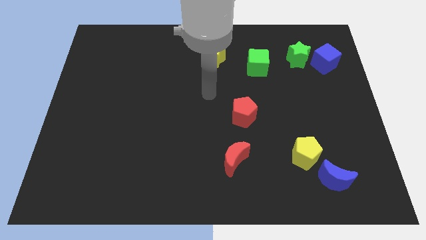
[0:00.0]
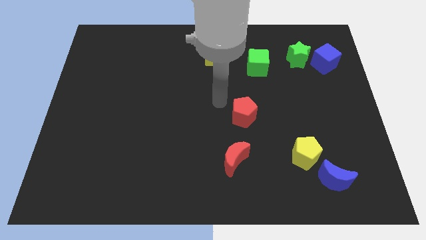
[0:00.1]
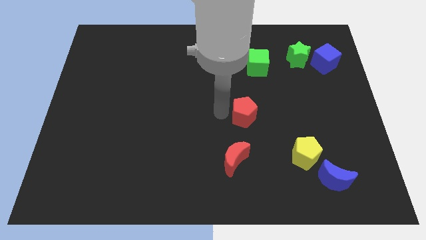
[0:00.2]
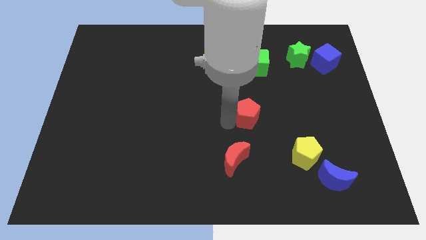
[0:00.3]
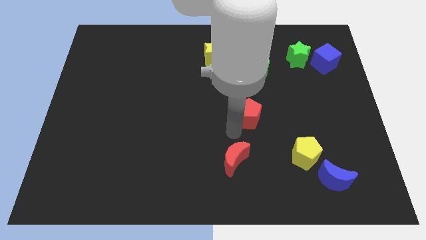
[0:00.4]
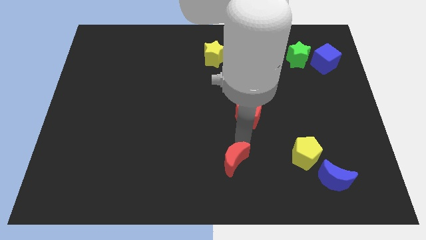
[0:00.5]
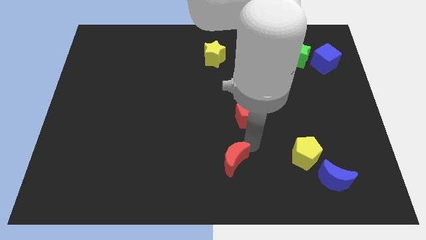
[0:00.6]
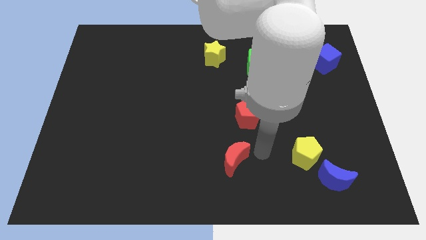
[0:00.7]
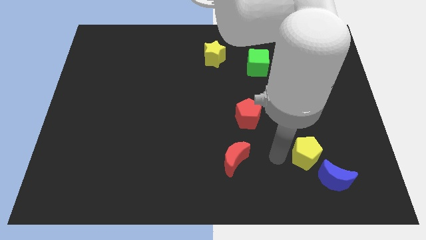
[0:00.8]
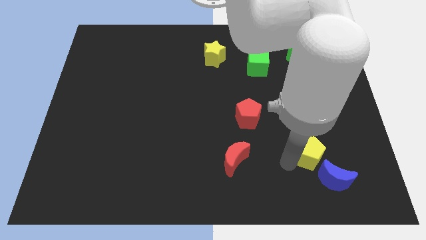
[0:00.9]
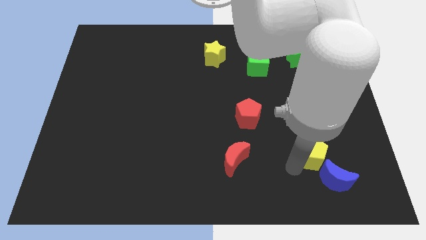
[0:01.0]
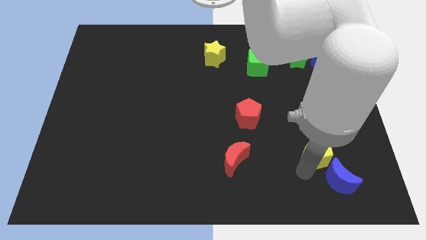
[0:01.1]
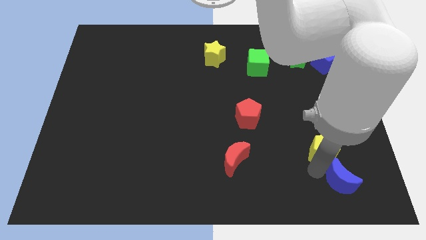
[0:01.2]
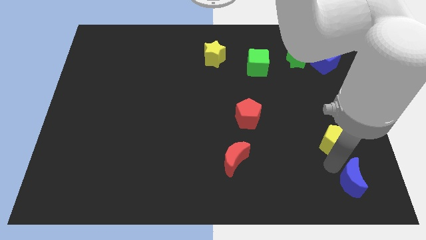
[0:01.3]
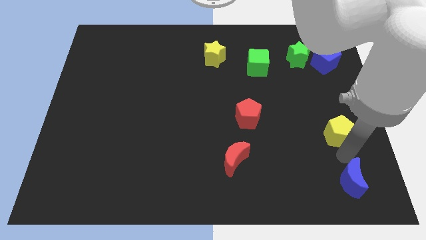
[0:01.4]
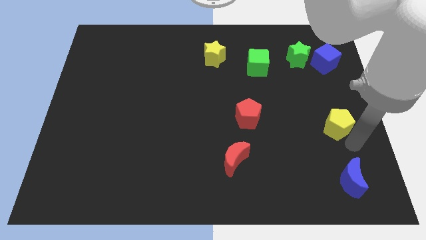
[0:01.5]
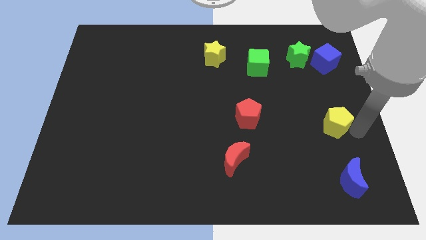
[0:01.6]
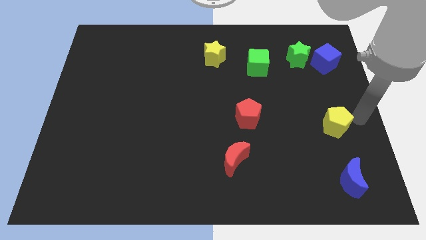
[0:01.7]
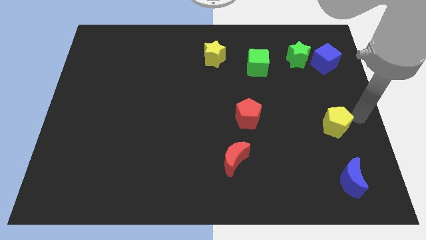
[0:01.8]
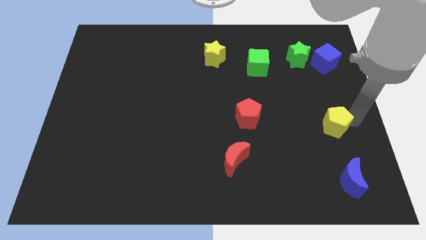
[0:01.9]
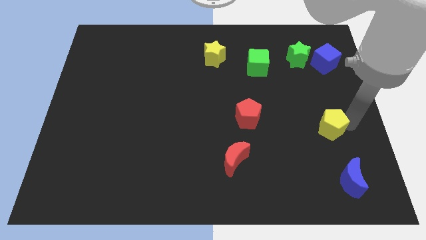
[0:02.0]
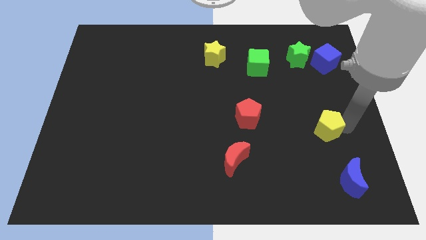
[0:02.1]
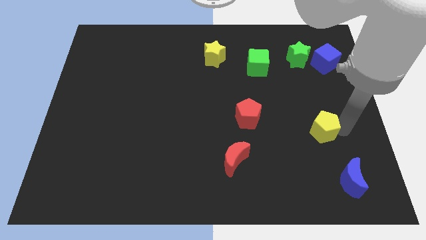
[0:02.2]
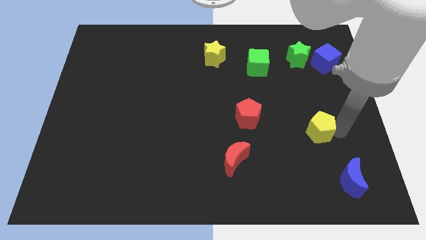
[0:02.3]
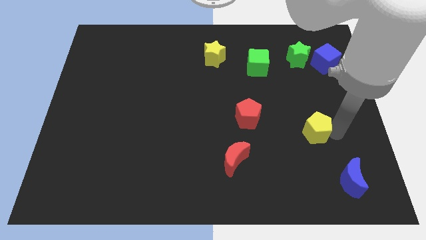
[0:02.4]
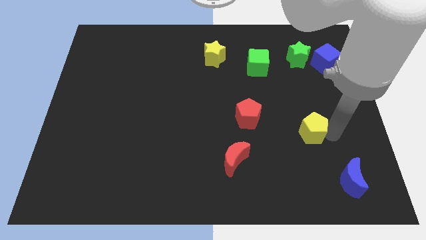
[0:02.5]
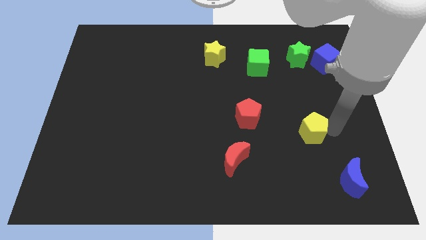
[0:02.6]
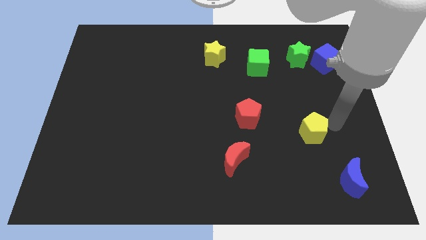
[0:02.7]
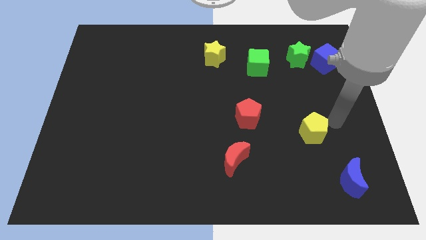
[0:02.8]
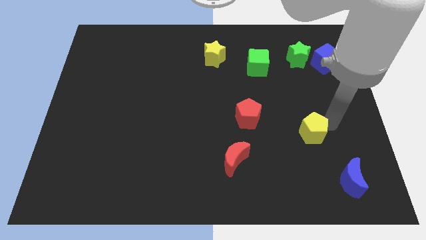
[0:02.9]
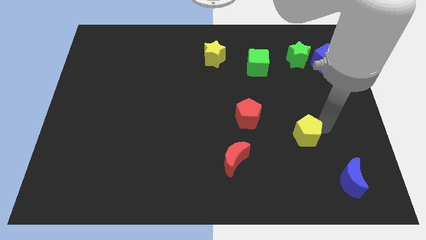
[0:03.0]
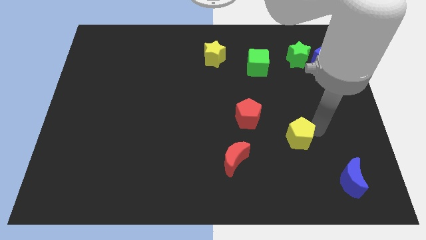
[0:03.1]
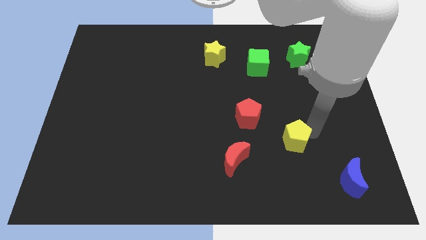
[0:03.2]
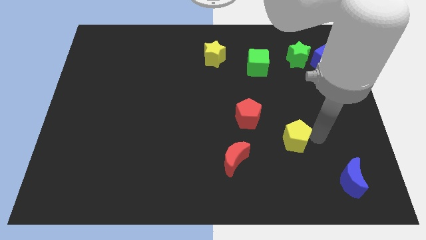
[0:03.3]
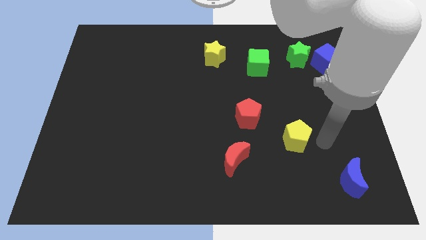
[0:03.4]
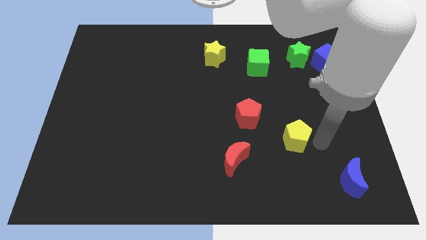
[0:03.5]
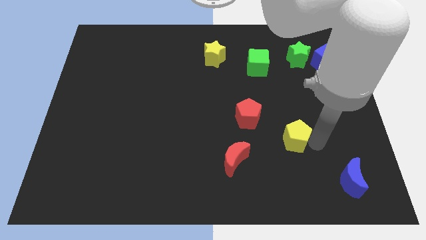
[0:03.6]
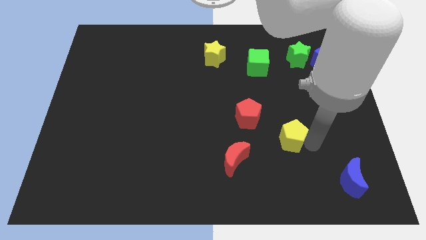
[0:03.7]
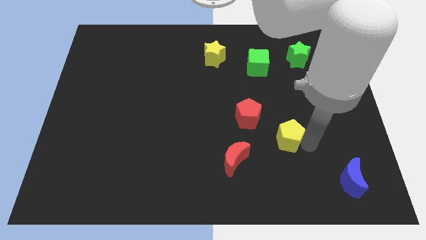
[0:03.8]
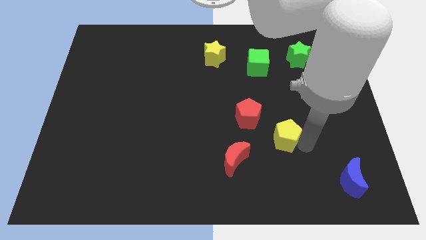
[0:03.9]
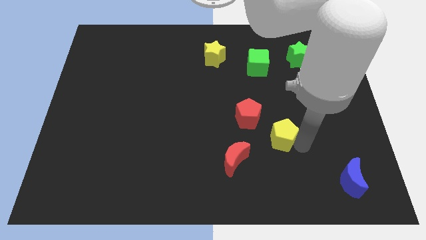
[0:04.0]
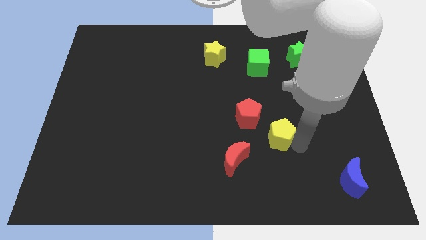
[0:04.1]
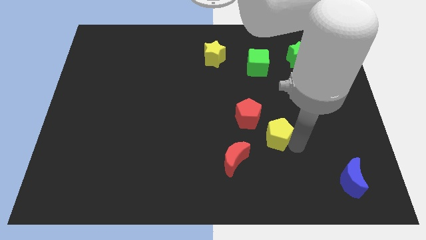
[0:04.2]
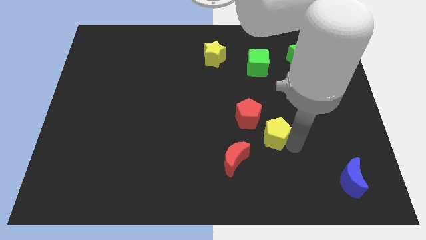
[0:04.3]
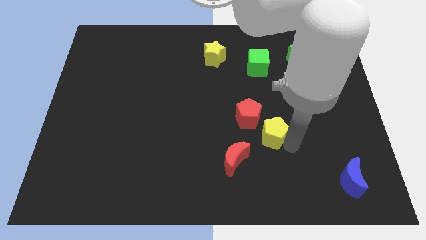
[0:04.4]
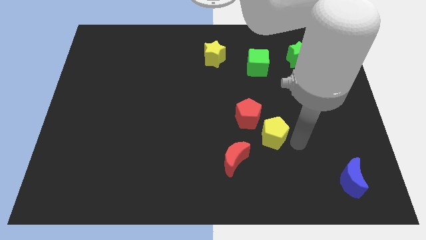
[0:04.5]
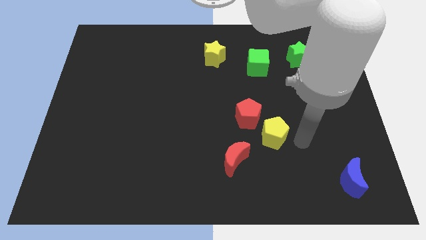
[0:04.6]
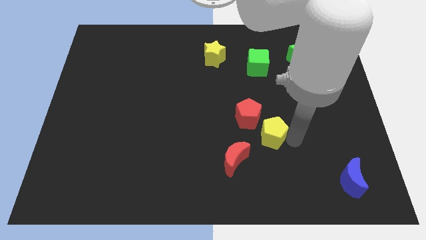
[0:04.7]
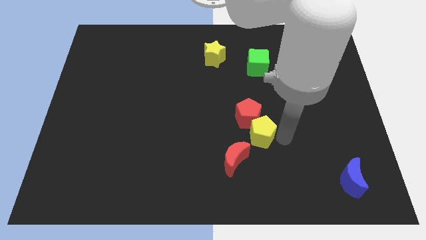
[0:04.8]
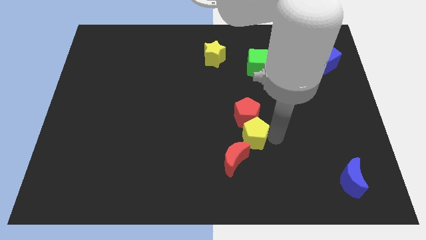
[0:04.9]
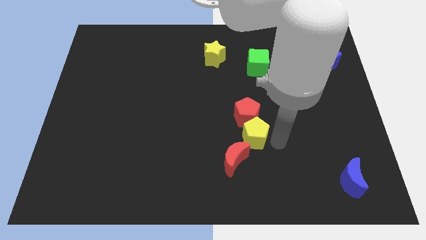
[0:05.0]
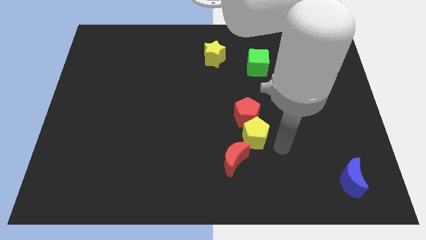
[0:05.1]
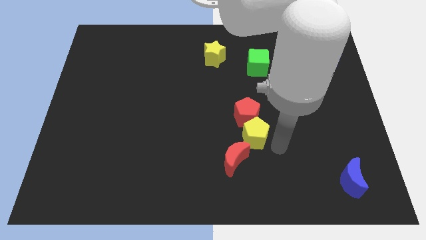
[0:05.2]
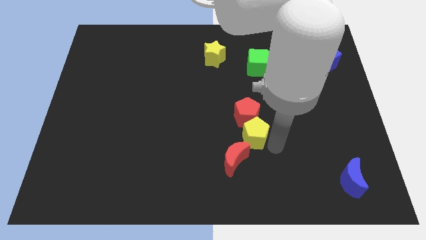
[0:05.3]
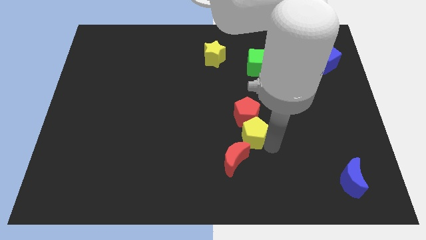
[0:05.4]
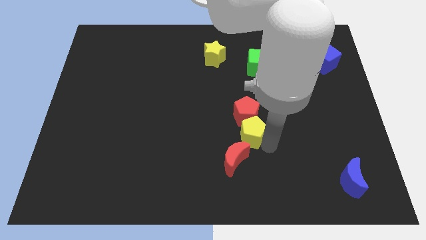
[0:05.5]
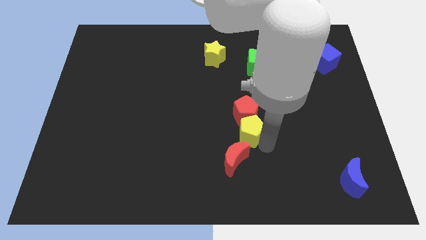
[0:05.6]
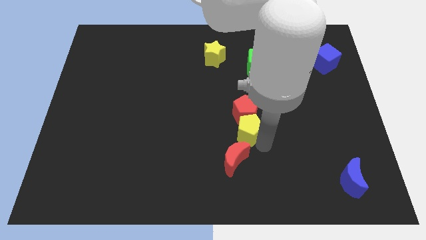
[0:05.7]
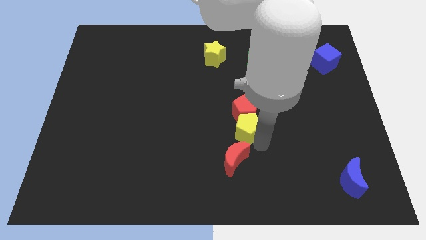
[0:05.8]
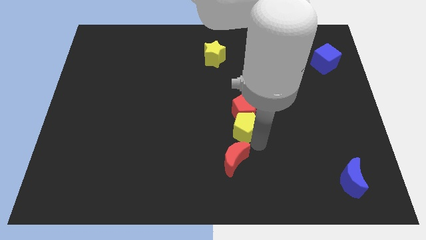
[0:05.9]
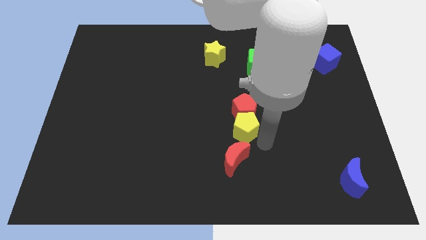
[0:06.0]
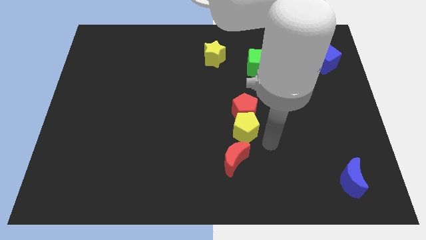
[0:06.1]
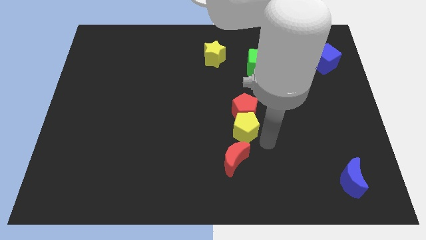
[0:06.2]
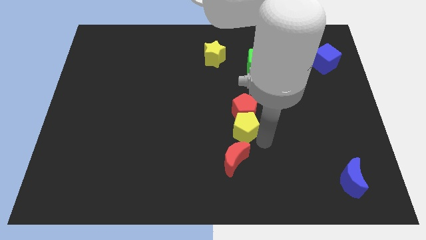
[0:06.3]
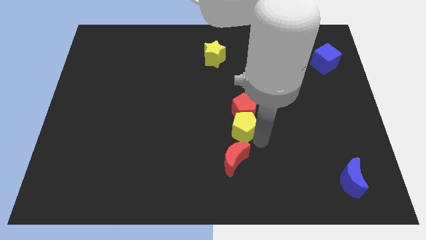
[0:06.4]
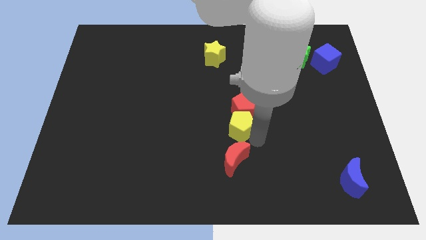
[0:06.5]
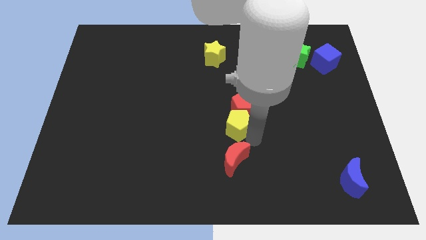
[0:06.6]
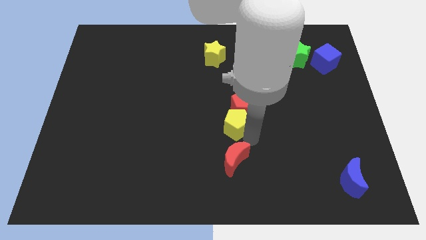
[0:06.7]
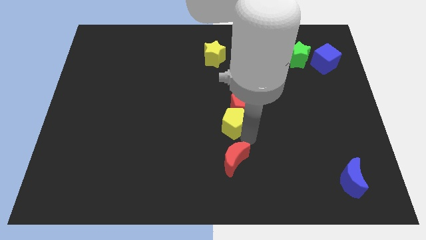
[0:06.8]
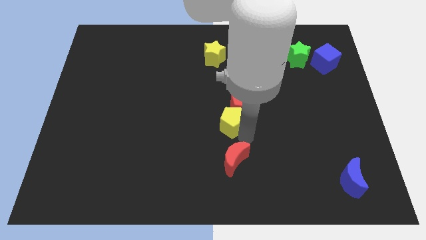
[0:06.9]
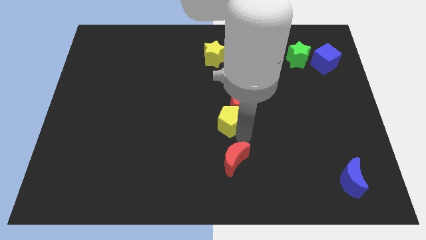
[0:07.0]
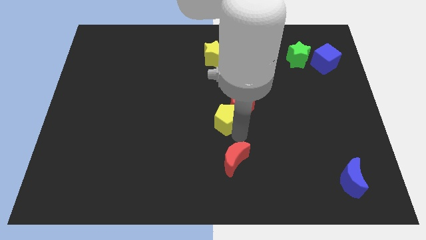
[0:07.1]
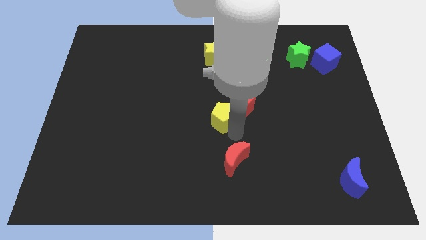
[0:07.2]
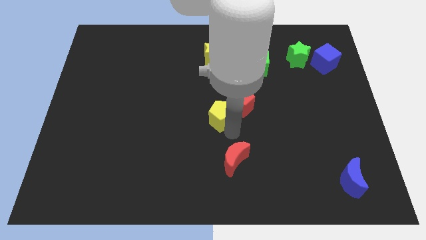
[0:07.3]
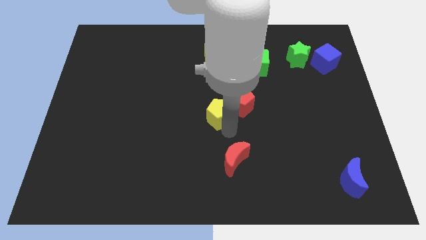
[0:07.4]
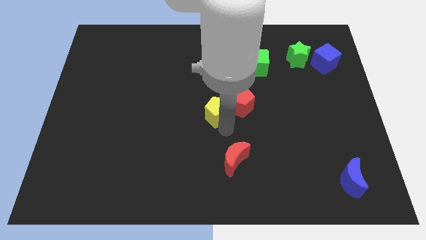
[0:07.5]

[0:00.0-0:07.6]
slide the yellow pentagon up and to the left diagonally
